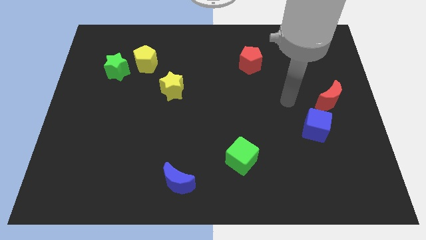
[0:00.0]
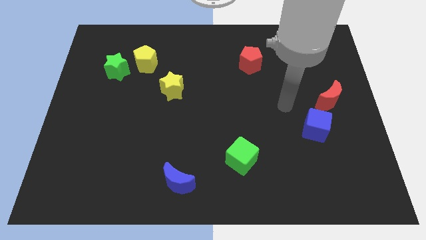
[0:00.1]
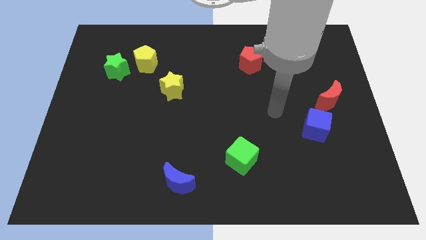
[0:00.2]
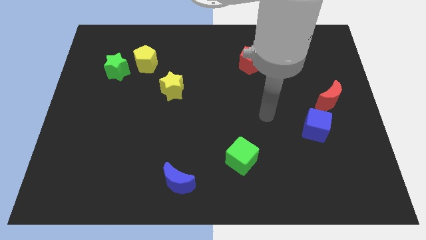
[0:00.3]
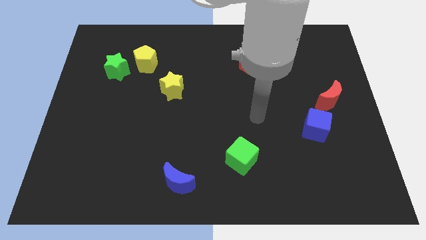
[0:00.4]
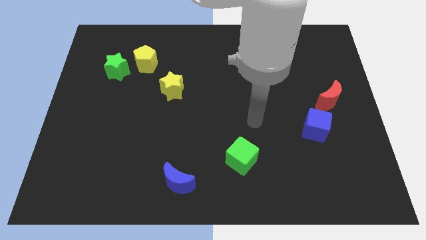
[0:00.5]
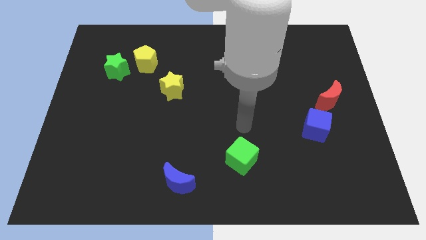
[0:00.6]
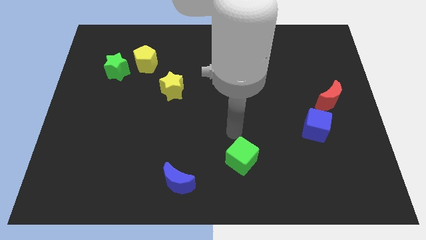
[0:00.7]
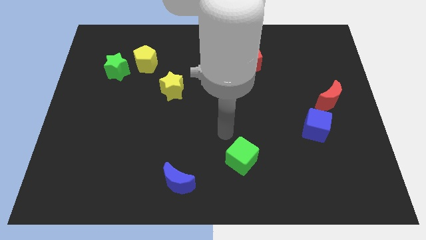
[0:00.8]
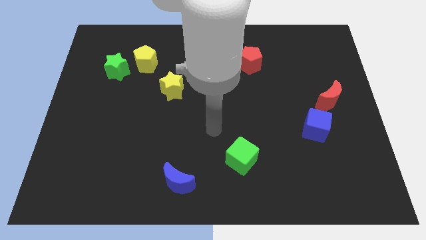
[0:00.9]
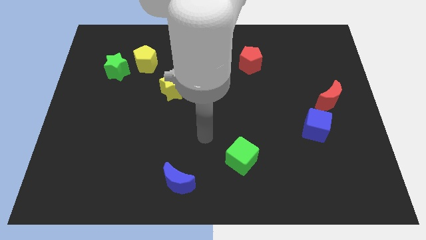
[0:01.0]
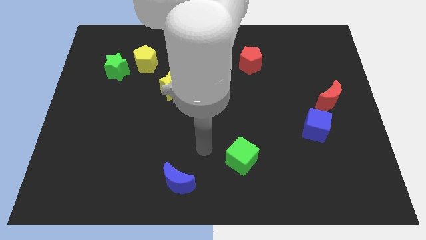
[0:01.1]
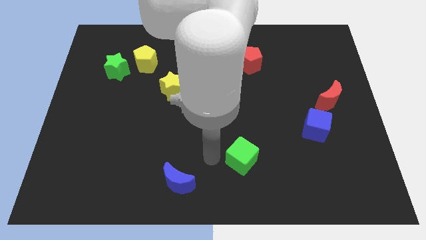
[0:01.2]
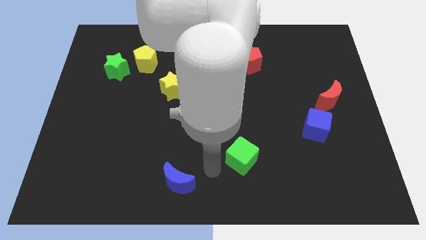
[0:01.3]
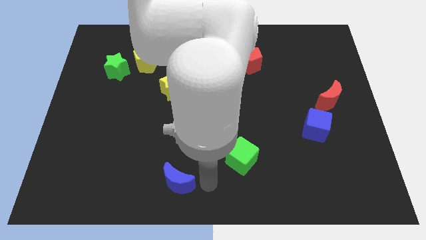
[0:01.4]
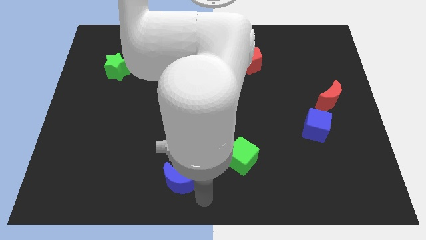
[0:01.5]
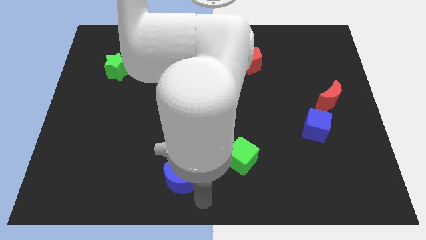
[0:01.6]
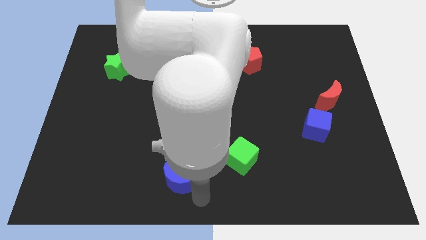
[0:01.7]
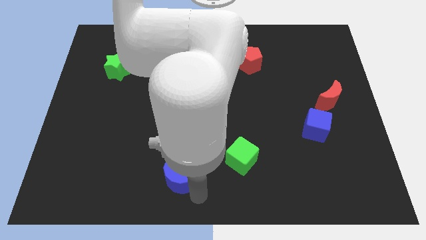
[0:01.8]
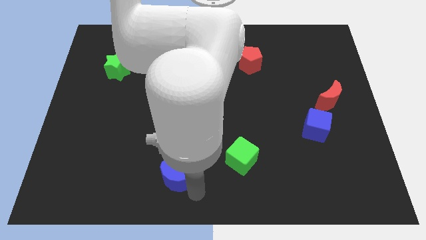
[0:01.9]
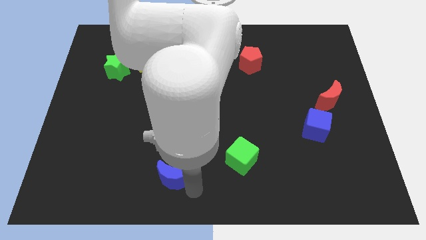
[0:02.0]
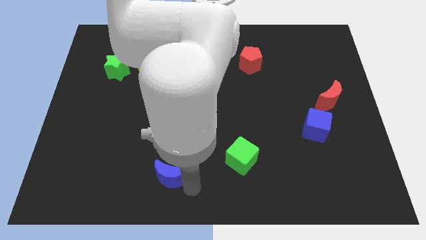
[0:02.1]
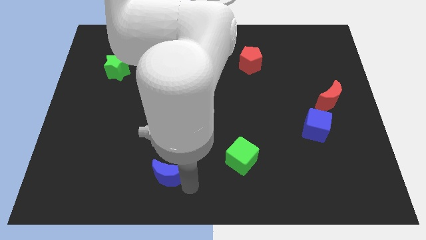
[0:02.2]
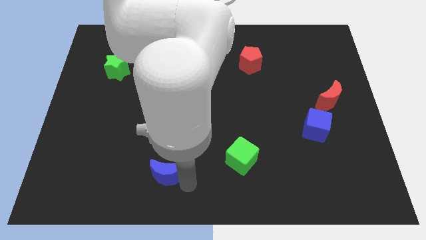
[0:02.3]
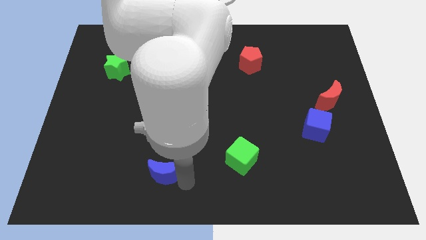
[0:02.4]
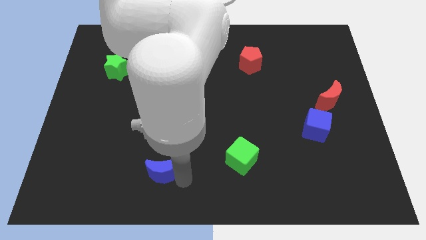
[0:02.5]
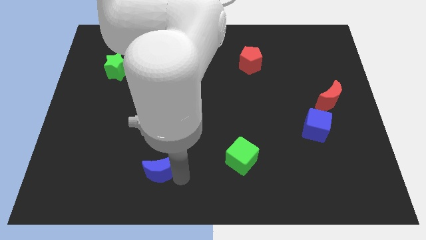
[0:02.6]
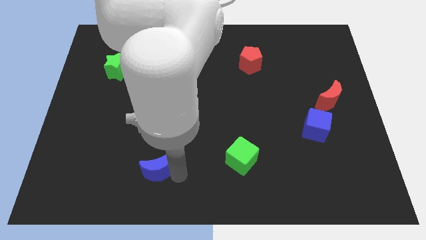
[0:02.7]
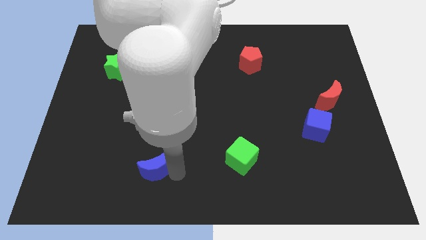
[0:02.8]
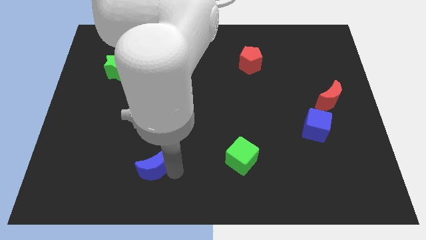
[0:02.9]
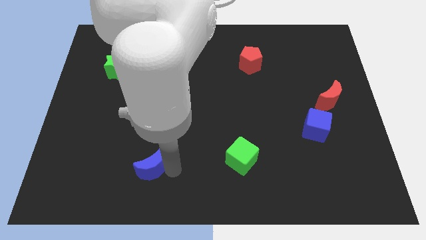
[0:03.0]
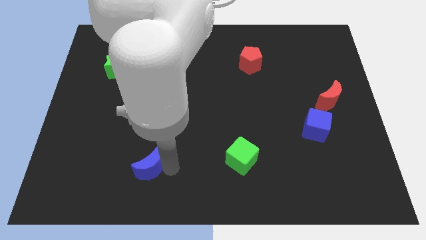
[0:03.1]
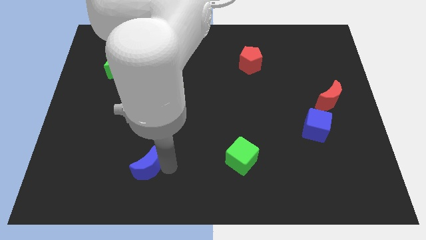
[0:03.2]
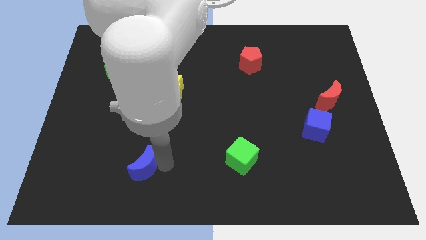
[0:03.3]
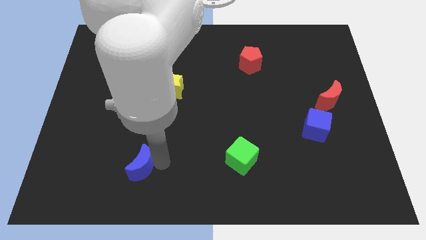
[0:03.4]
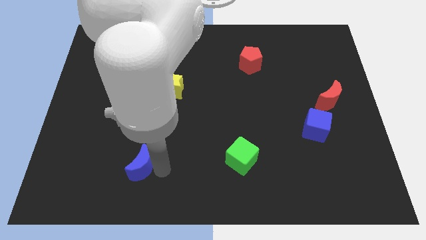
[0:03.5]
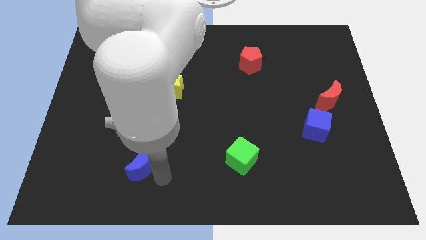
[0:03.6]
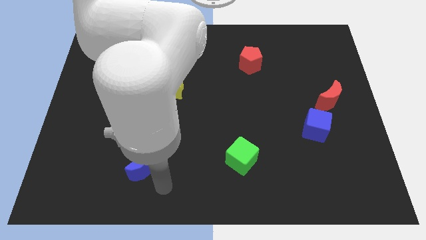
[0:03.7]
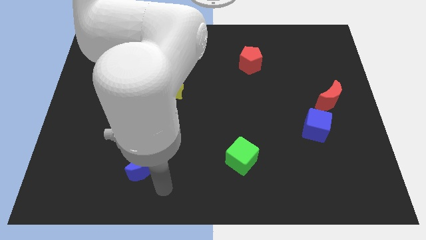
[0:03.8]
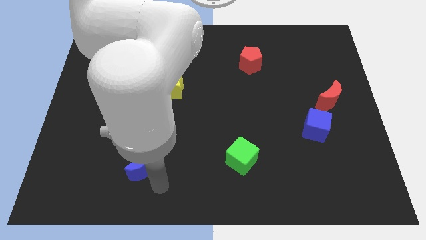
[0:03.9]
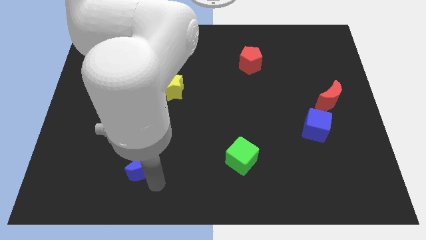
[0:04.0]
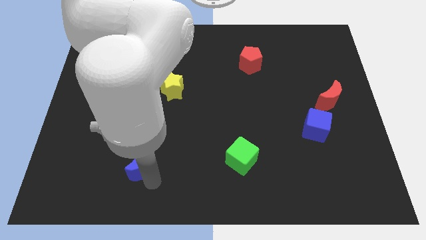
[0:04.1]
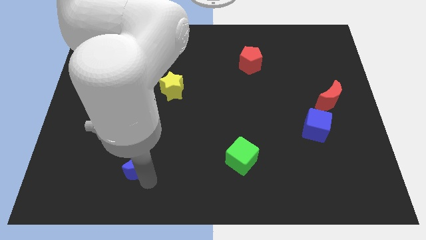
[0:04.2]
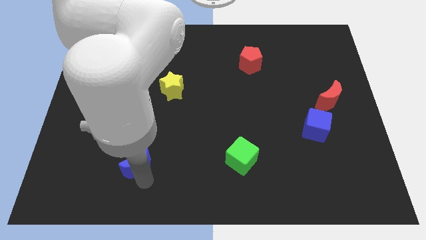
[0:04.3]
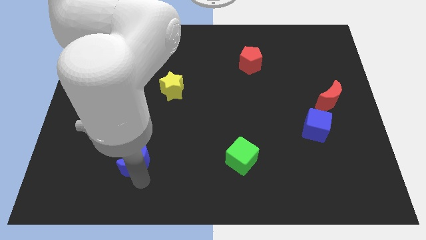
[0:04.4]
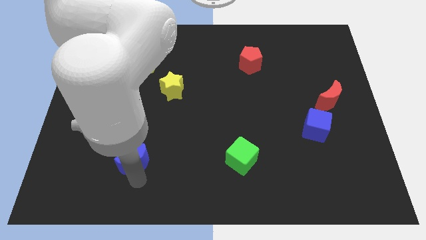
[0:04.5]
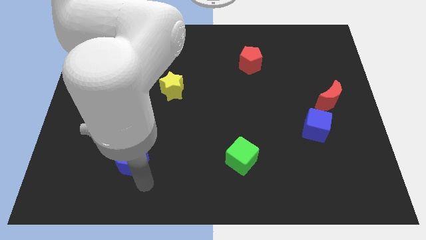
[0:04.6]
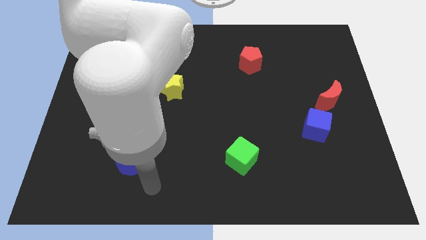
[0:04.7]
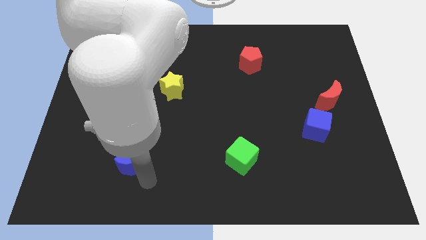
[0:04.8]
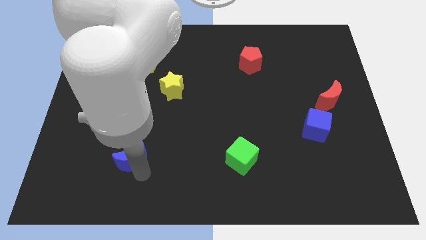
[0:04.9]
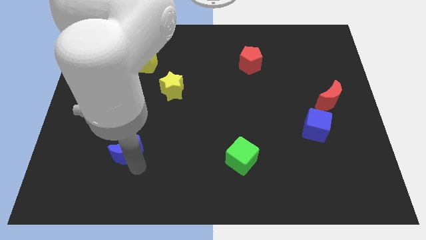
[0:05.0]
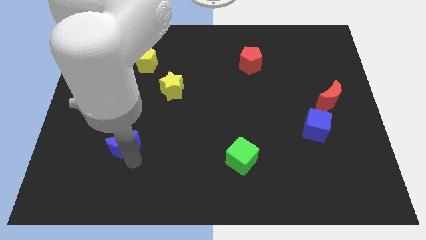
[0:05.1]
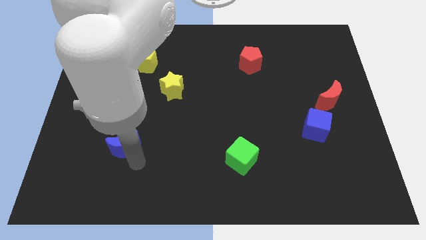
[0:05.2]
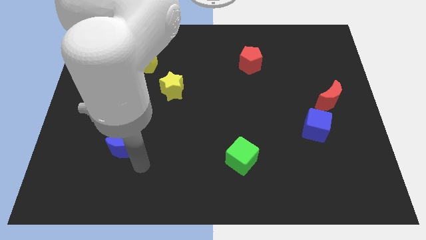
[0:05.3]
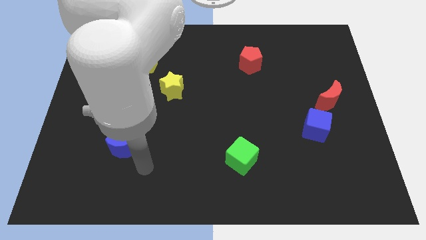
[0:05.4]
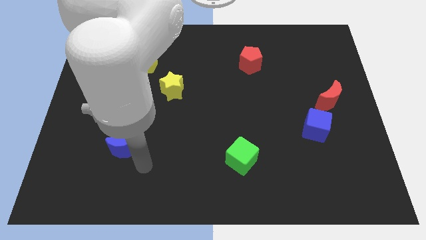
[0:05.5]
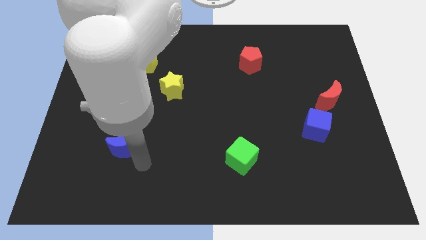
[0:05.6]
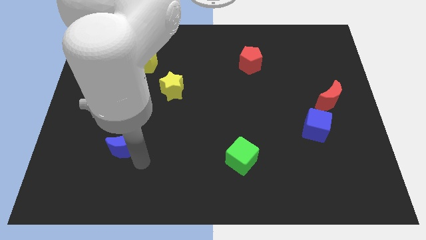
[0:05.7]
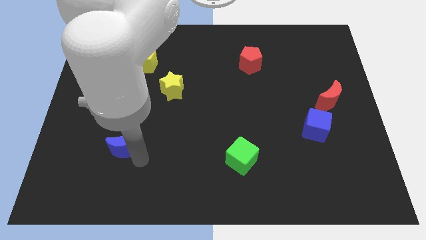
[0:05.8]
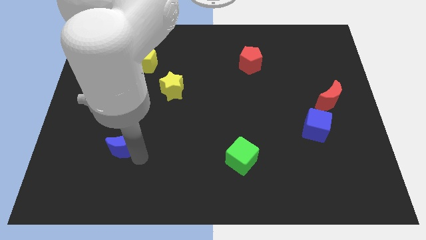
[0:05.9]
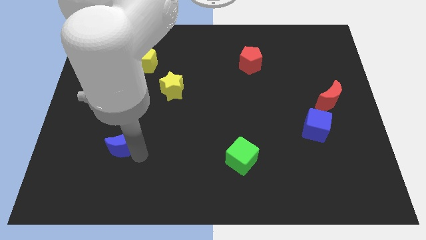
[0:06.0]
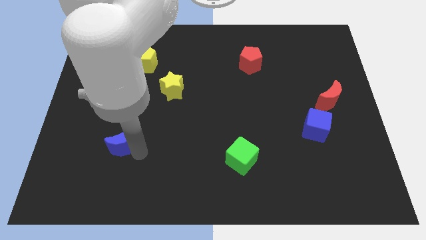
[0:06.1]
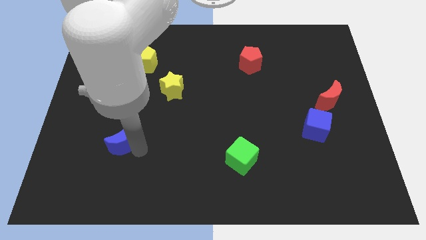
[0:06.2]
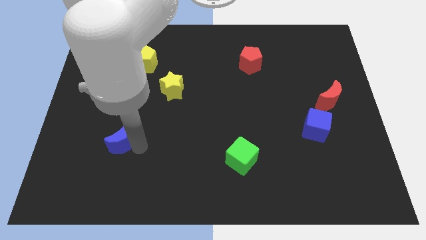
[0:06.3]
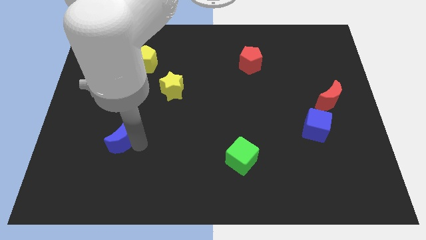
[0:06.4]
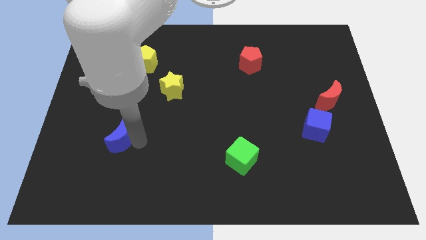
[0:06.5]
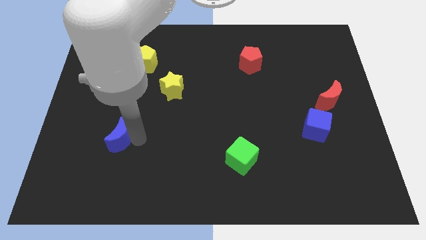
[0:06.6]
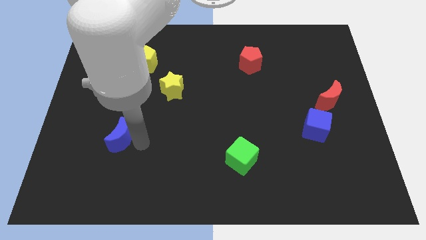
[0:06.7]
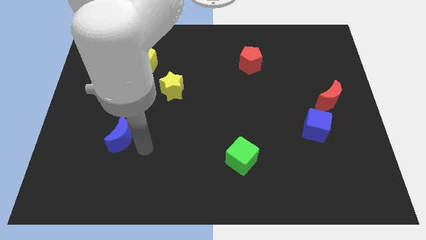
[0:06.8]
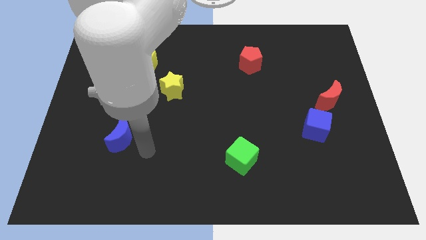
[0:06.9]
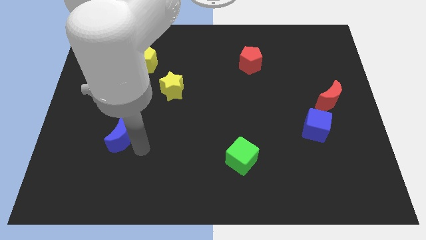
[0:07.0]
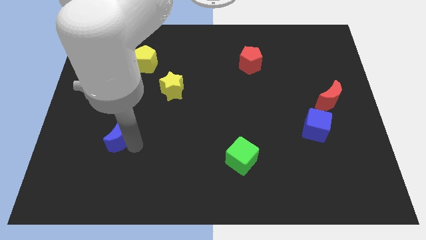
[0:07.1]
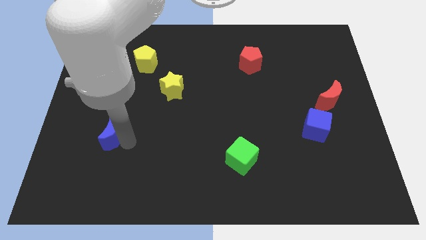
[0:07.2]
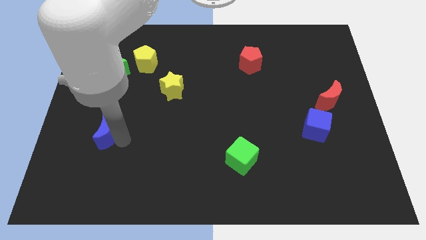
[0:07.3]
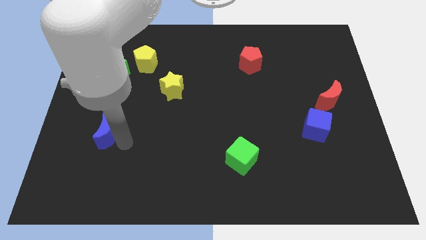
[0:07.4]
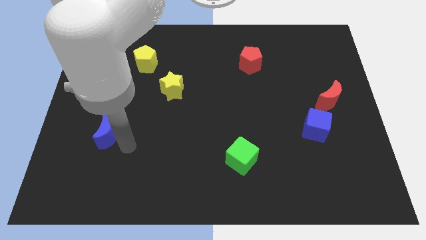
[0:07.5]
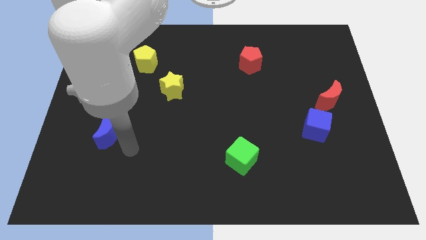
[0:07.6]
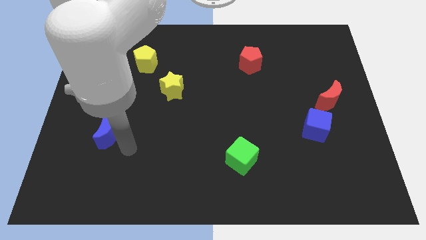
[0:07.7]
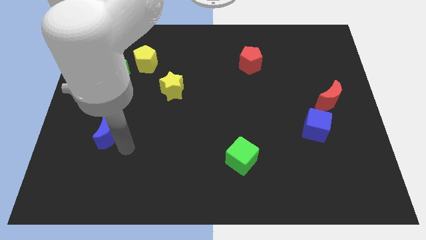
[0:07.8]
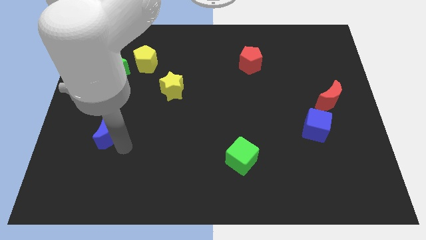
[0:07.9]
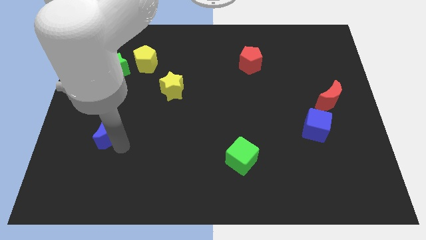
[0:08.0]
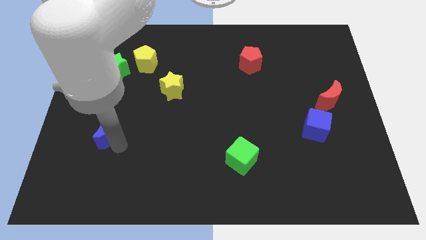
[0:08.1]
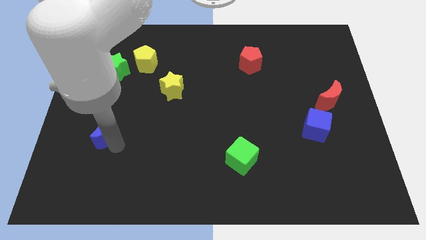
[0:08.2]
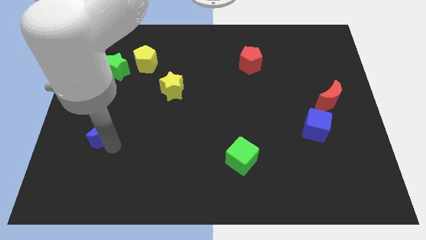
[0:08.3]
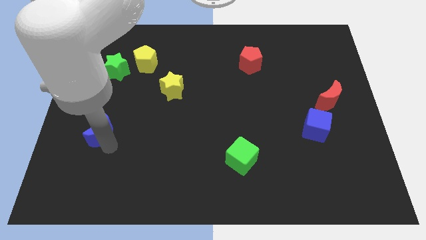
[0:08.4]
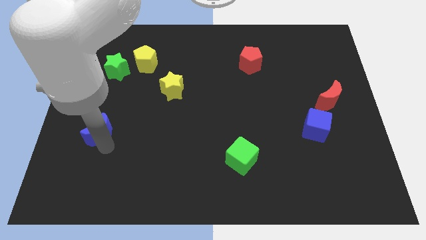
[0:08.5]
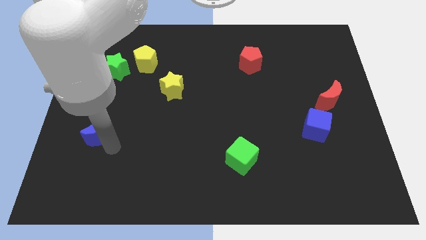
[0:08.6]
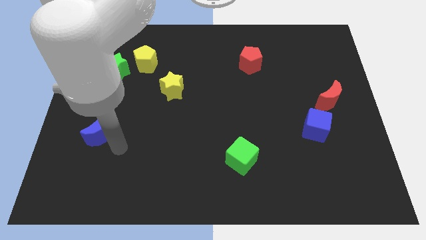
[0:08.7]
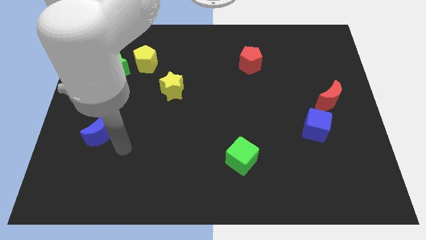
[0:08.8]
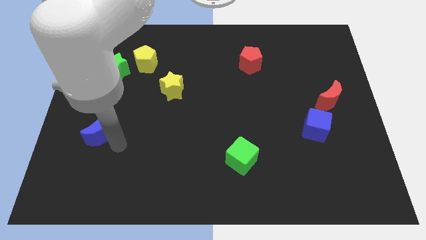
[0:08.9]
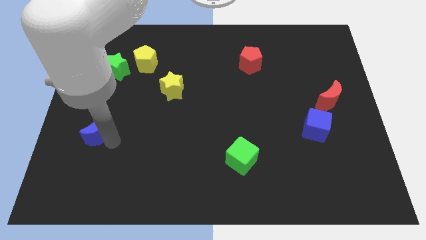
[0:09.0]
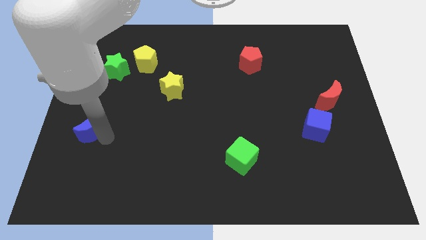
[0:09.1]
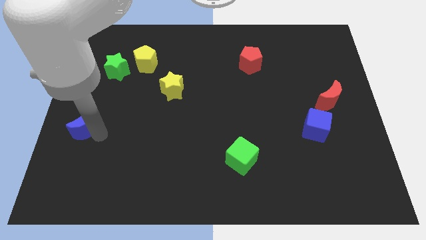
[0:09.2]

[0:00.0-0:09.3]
slide the blue moon to the center left
